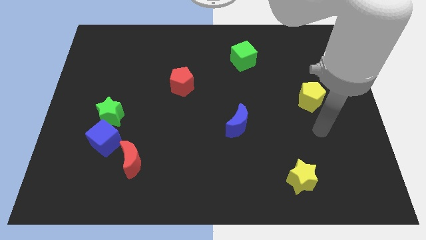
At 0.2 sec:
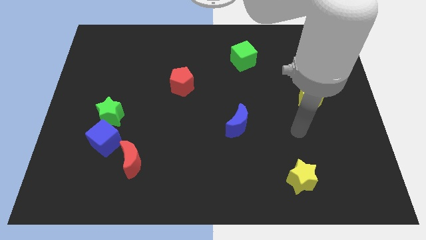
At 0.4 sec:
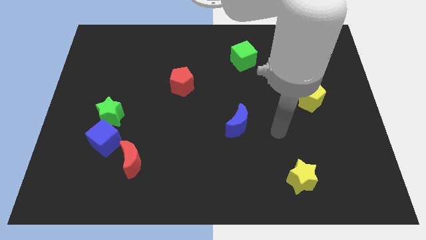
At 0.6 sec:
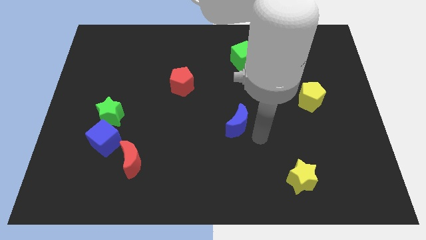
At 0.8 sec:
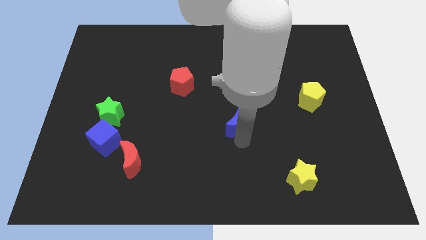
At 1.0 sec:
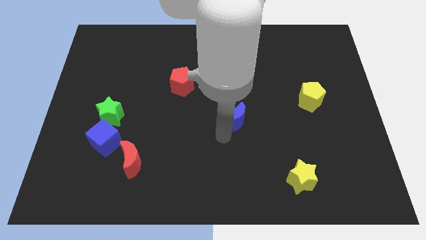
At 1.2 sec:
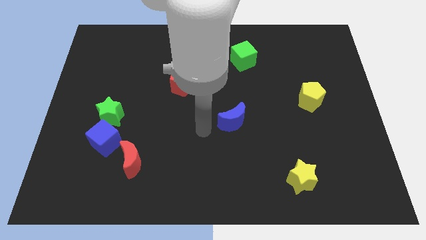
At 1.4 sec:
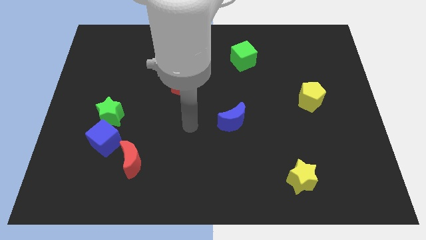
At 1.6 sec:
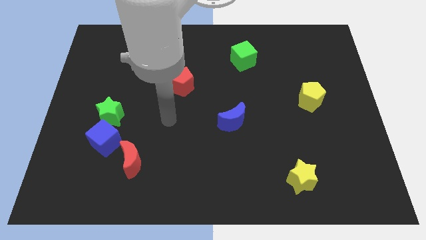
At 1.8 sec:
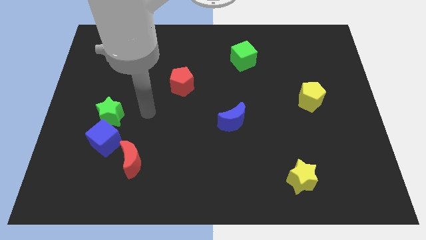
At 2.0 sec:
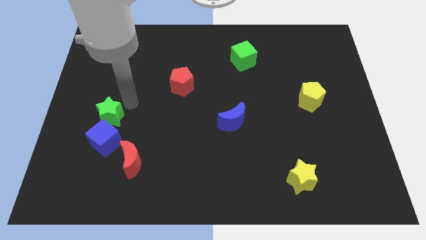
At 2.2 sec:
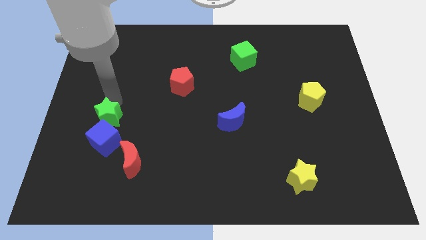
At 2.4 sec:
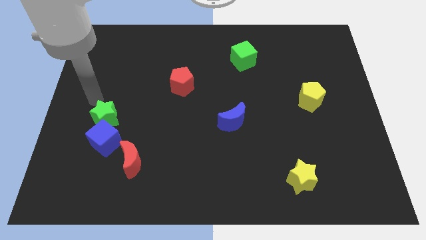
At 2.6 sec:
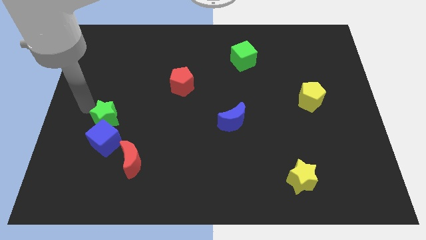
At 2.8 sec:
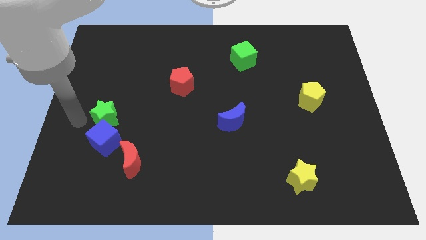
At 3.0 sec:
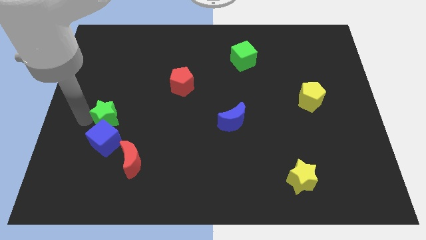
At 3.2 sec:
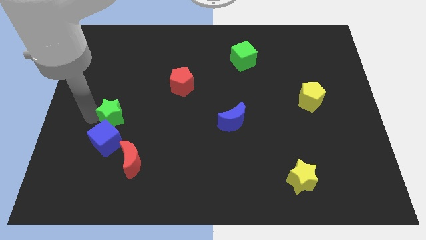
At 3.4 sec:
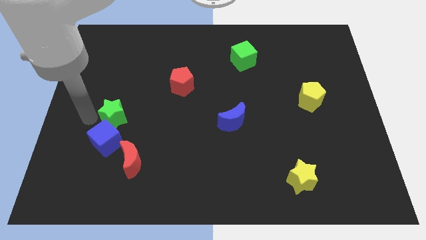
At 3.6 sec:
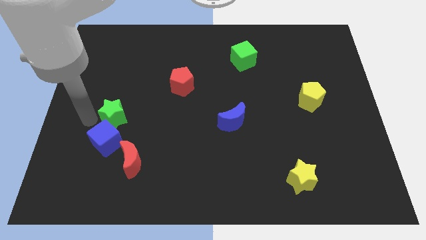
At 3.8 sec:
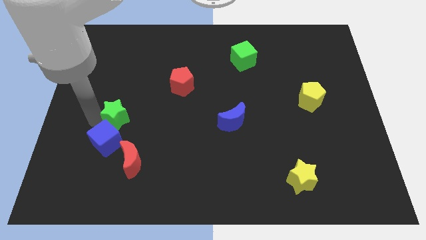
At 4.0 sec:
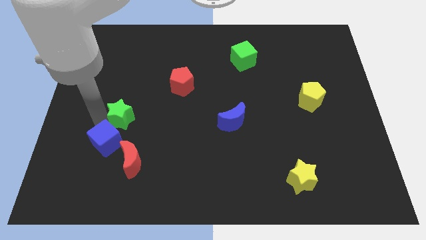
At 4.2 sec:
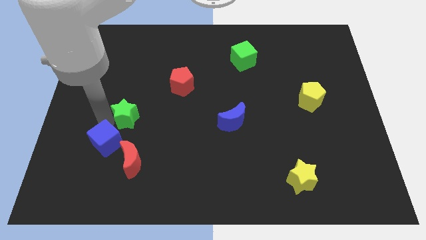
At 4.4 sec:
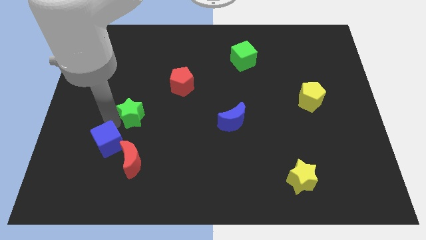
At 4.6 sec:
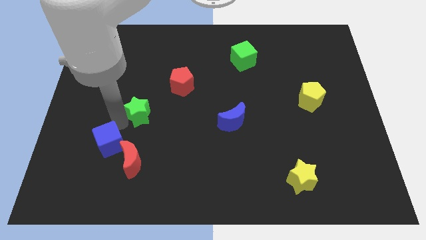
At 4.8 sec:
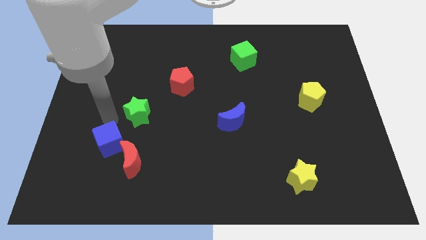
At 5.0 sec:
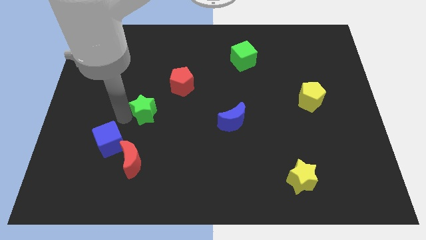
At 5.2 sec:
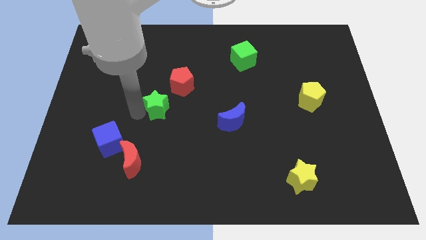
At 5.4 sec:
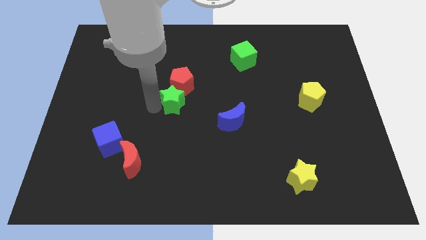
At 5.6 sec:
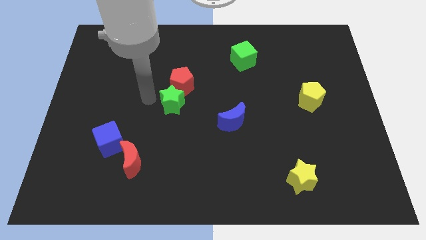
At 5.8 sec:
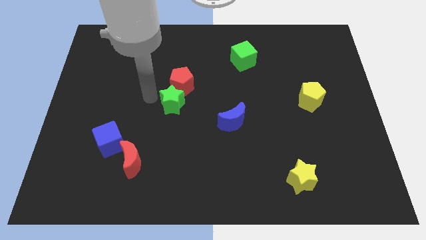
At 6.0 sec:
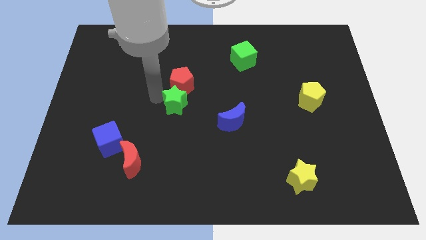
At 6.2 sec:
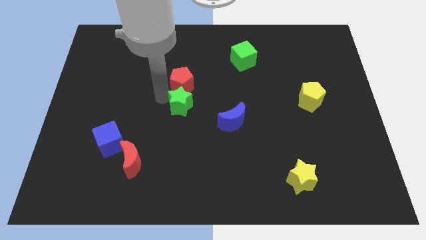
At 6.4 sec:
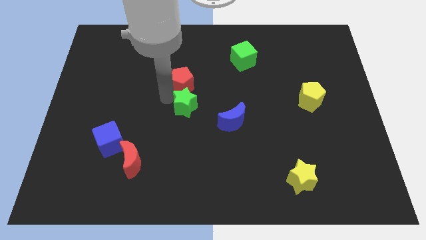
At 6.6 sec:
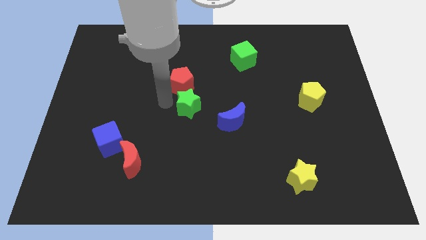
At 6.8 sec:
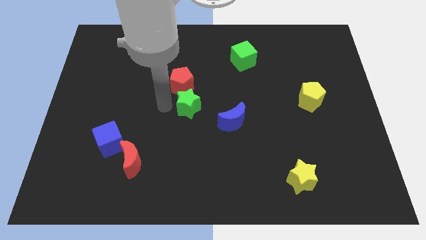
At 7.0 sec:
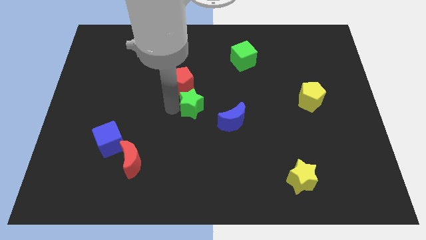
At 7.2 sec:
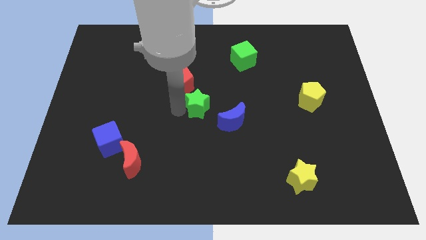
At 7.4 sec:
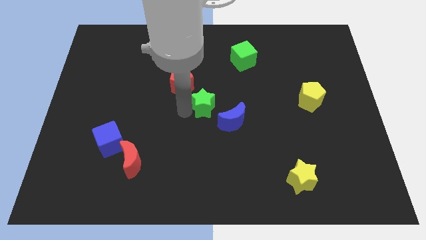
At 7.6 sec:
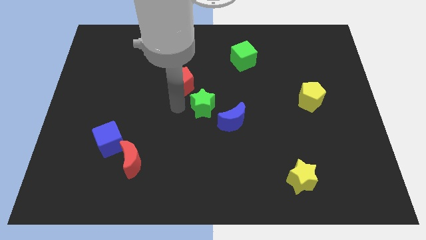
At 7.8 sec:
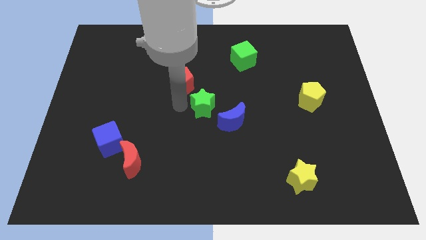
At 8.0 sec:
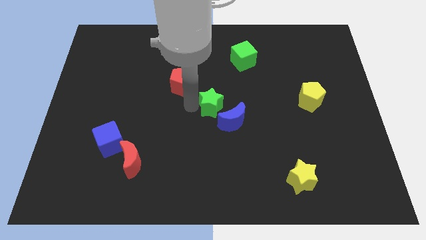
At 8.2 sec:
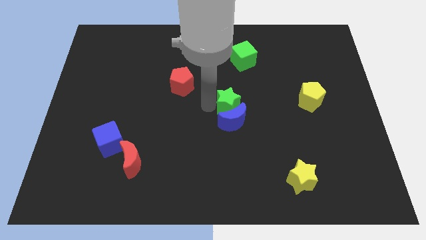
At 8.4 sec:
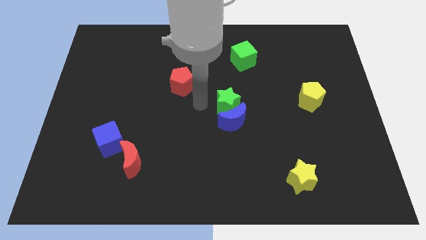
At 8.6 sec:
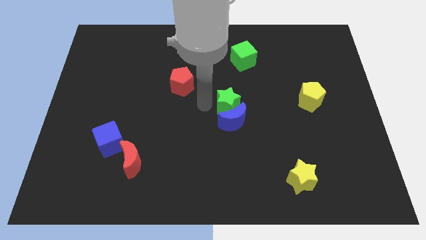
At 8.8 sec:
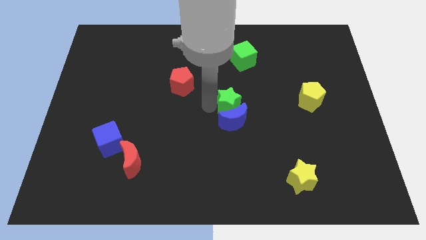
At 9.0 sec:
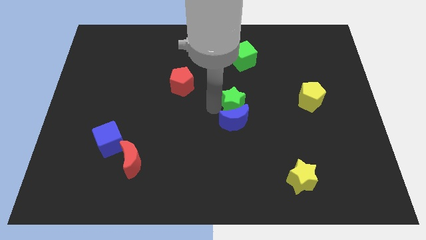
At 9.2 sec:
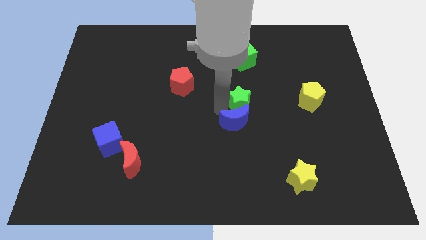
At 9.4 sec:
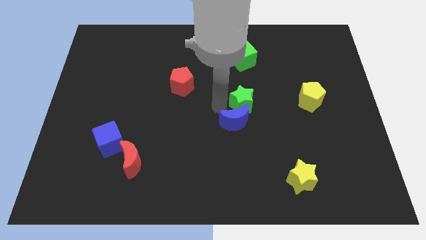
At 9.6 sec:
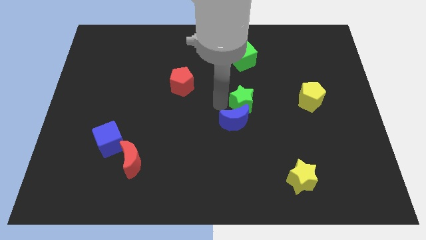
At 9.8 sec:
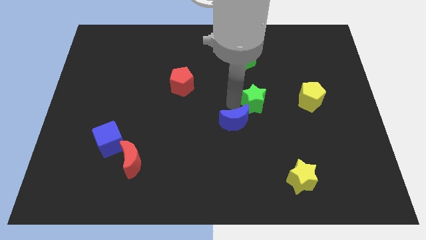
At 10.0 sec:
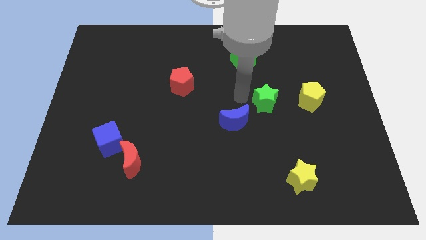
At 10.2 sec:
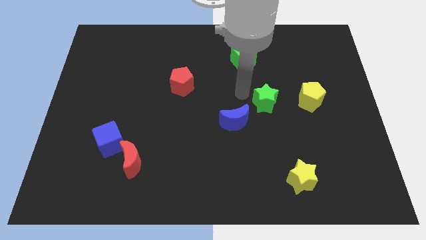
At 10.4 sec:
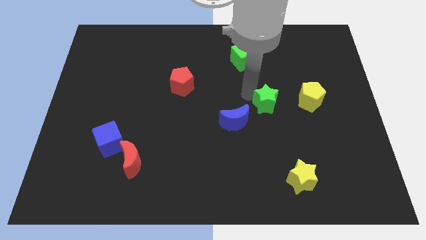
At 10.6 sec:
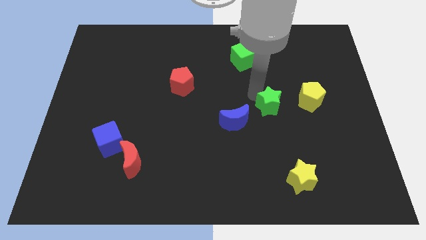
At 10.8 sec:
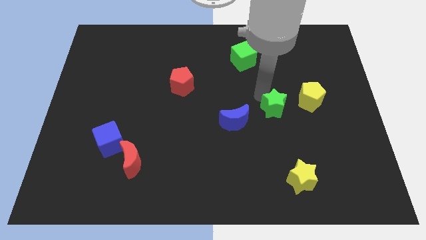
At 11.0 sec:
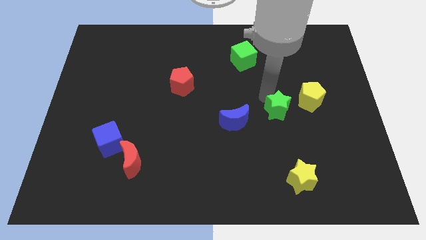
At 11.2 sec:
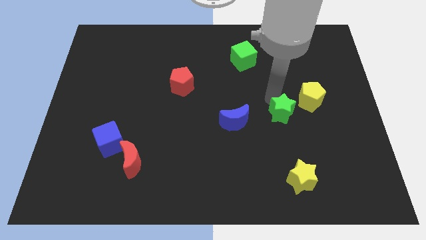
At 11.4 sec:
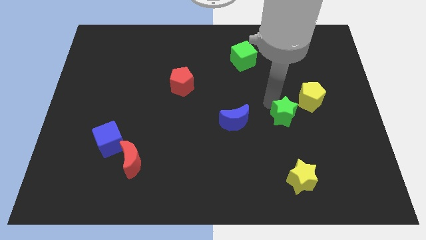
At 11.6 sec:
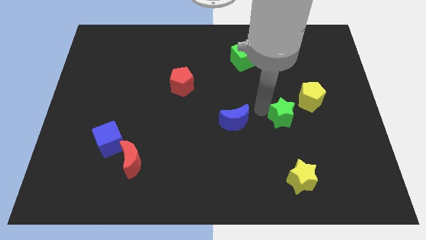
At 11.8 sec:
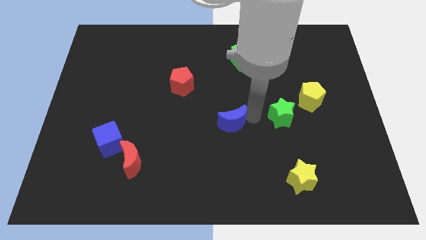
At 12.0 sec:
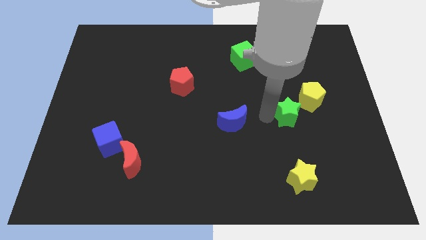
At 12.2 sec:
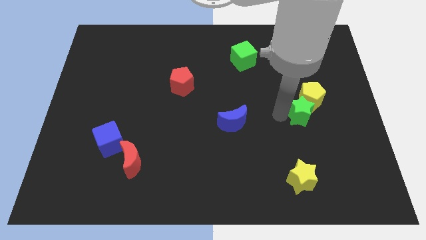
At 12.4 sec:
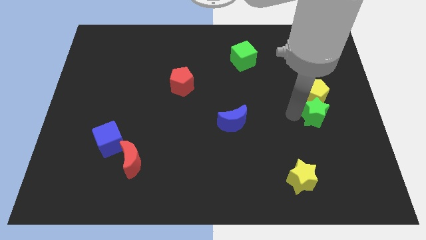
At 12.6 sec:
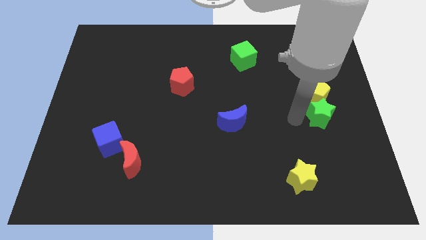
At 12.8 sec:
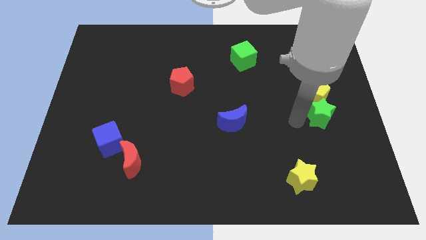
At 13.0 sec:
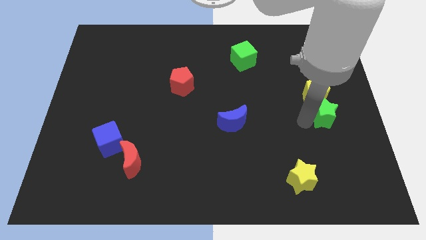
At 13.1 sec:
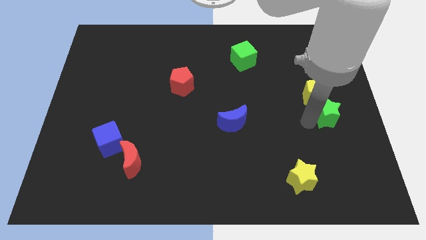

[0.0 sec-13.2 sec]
put the green star to the right side of the board
